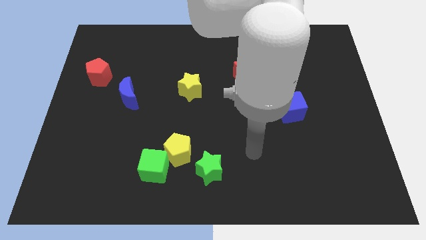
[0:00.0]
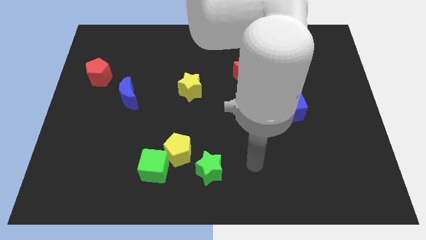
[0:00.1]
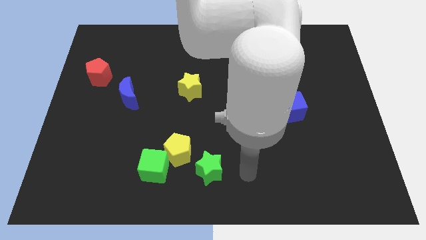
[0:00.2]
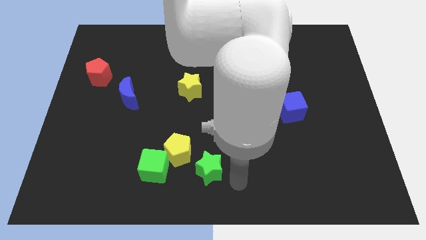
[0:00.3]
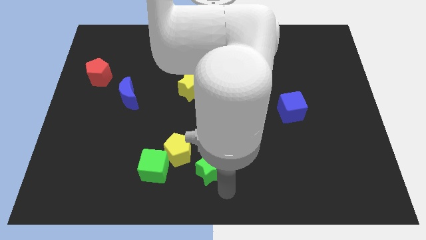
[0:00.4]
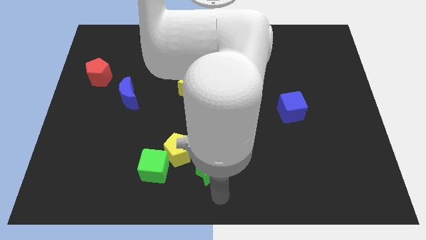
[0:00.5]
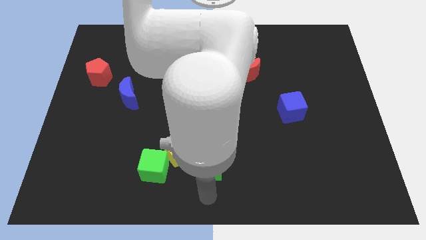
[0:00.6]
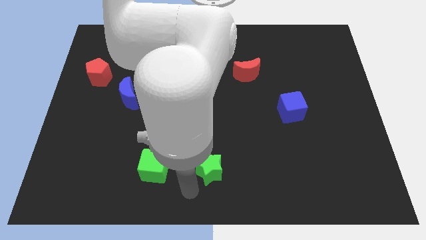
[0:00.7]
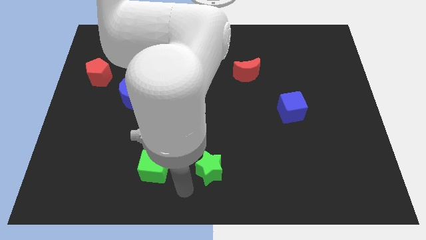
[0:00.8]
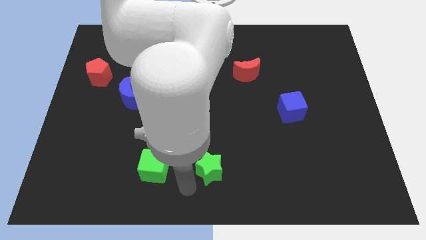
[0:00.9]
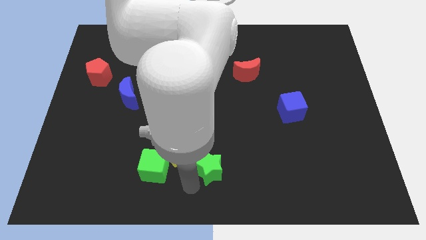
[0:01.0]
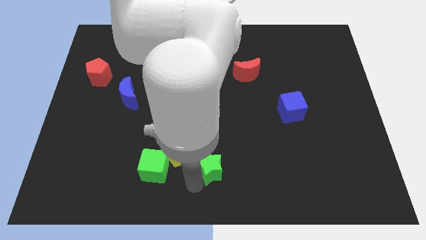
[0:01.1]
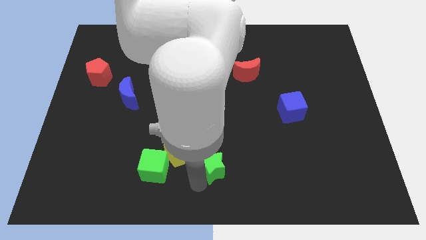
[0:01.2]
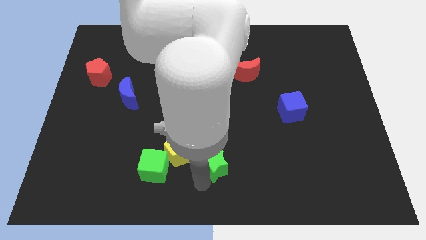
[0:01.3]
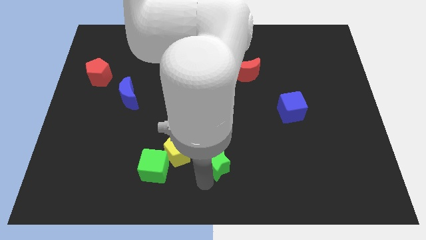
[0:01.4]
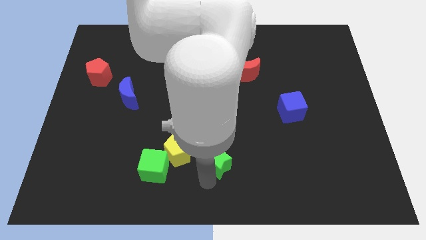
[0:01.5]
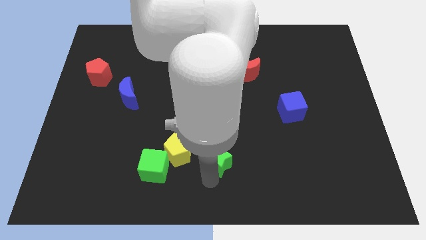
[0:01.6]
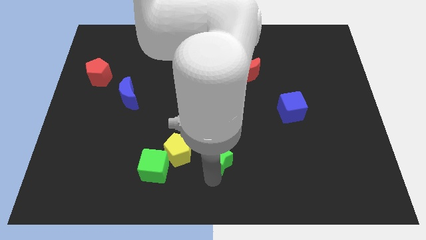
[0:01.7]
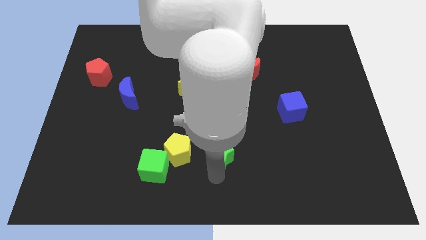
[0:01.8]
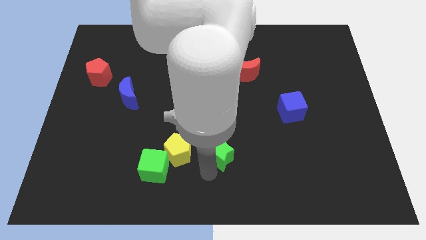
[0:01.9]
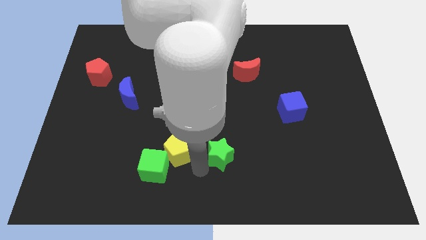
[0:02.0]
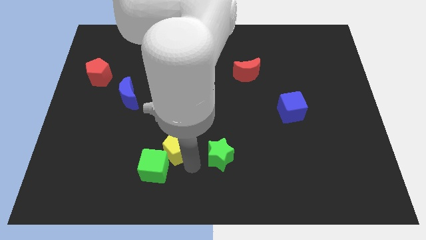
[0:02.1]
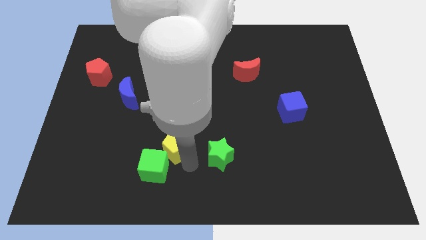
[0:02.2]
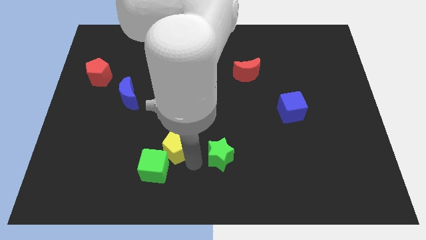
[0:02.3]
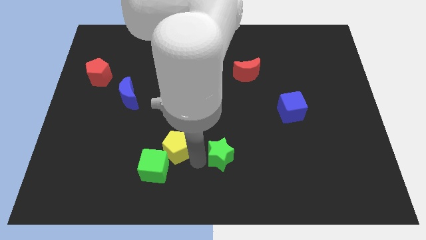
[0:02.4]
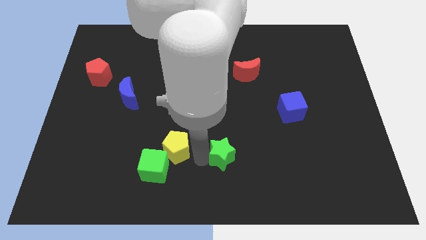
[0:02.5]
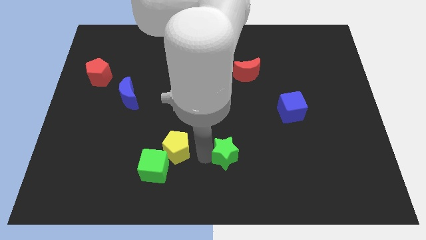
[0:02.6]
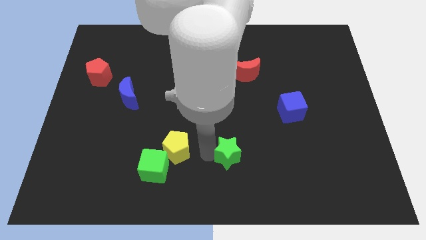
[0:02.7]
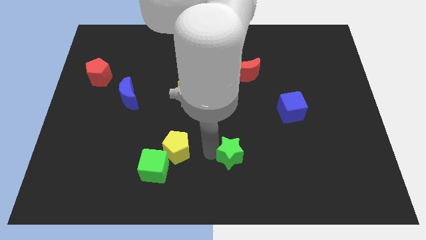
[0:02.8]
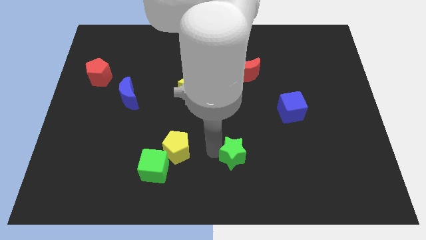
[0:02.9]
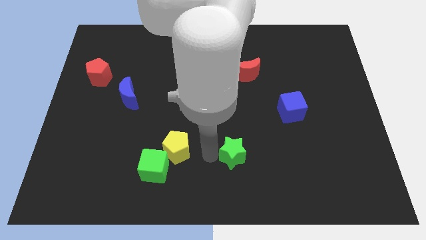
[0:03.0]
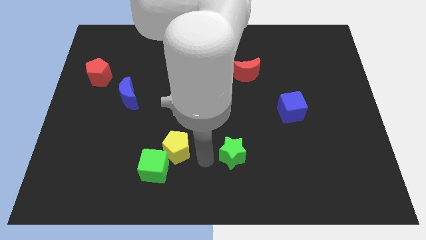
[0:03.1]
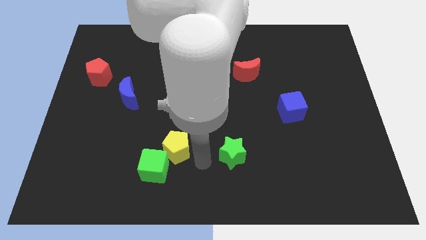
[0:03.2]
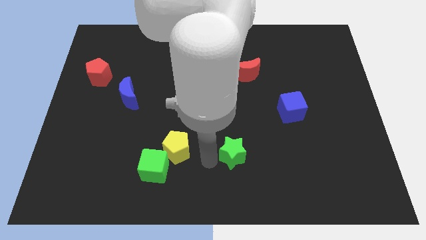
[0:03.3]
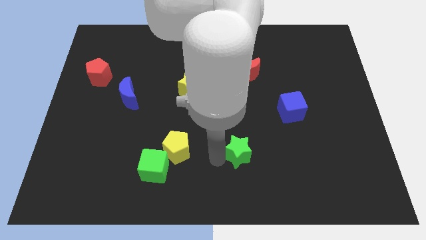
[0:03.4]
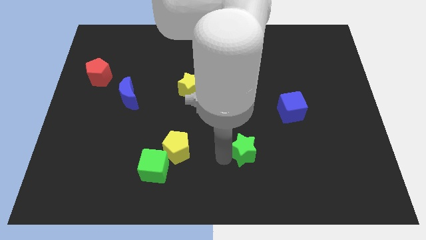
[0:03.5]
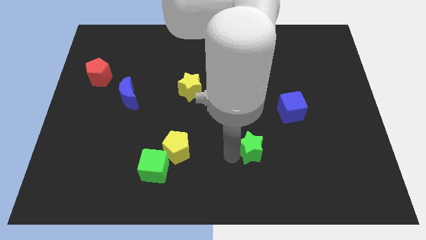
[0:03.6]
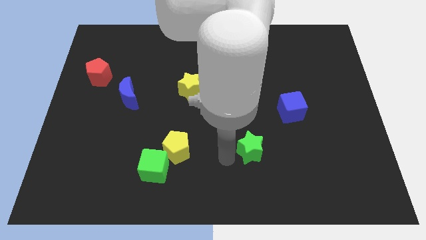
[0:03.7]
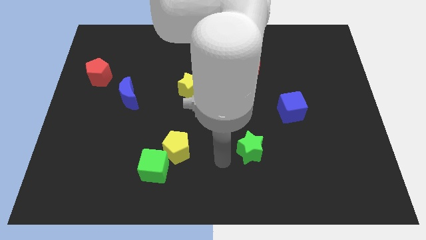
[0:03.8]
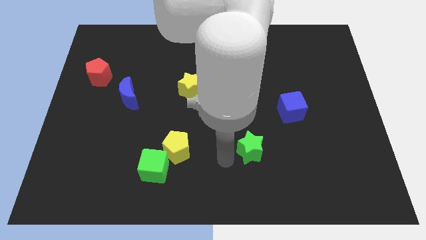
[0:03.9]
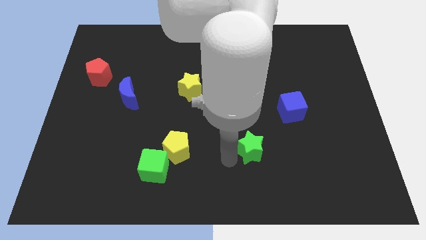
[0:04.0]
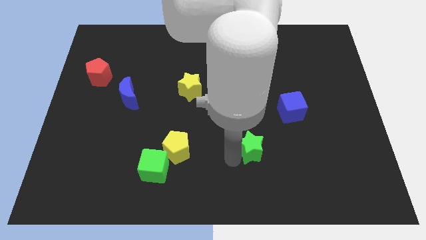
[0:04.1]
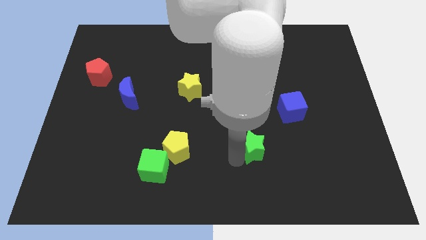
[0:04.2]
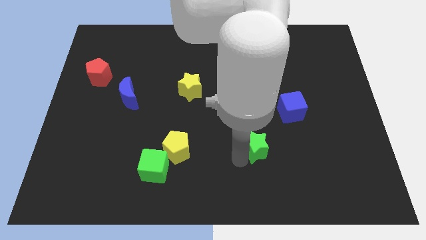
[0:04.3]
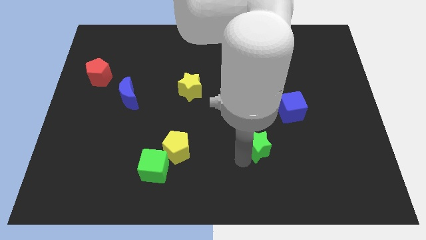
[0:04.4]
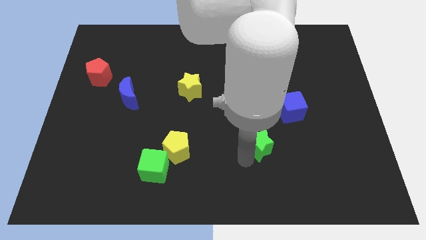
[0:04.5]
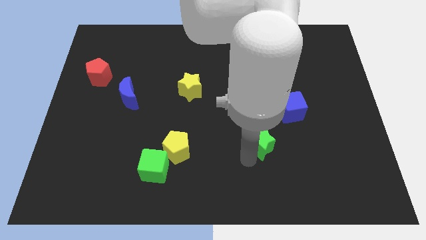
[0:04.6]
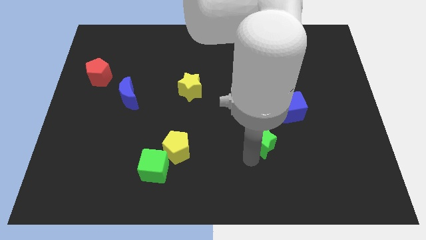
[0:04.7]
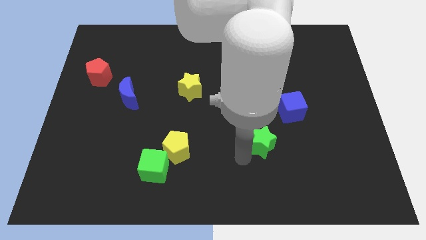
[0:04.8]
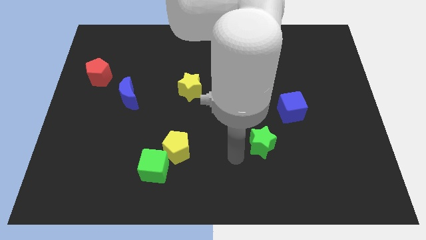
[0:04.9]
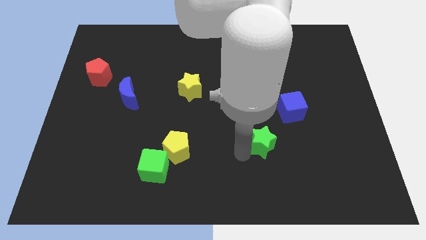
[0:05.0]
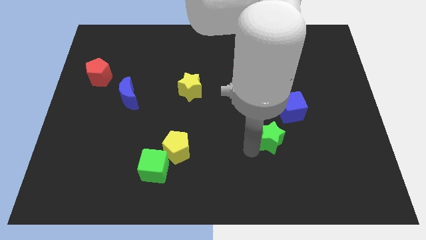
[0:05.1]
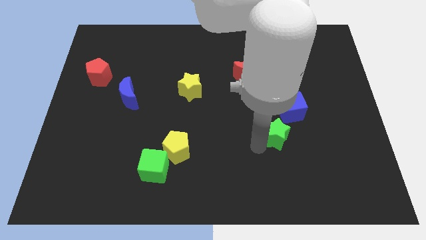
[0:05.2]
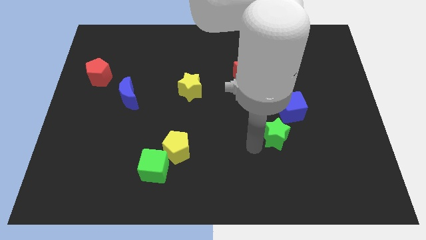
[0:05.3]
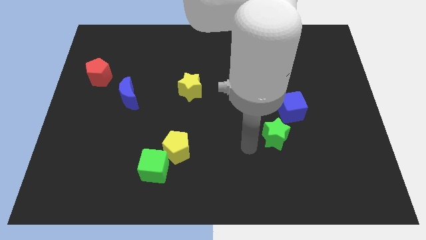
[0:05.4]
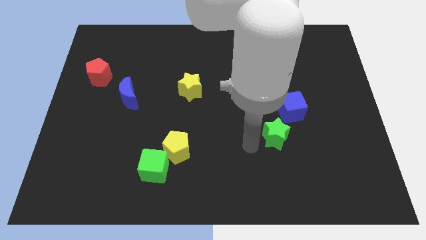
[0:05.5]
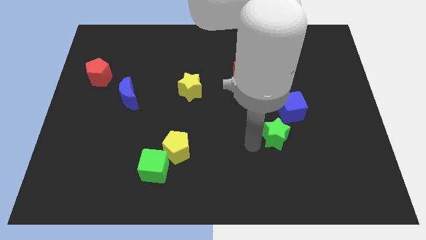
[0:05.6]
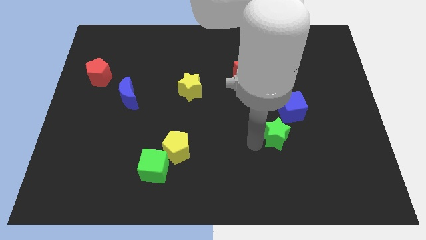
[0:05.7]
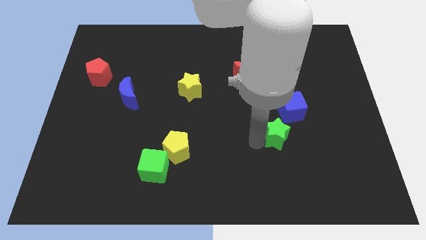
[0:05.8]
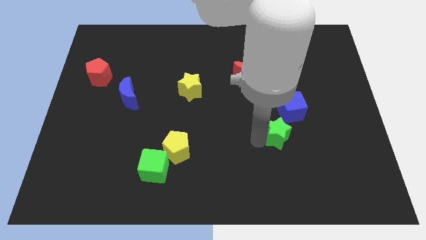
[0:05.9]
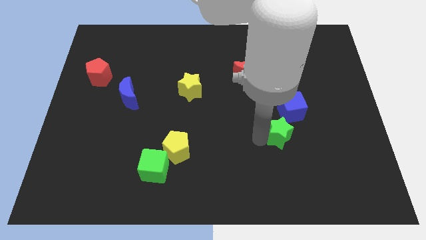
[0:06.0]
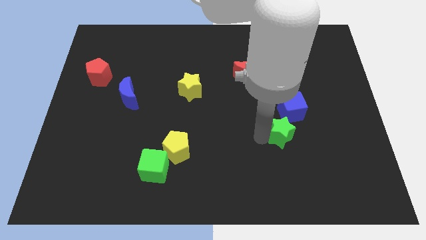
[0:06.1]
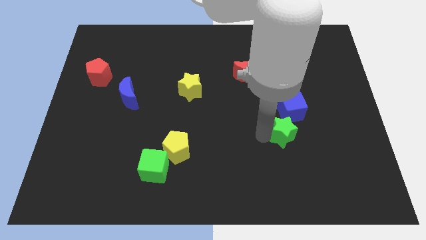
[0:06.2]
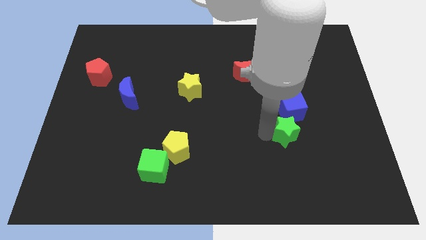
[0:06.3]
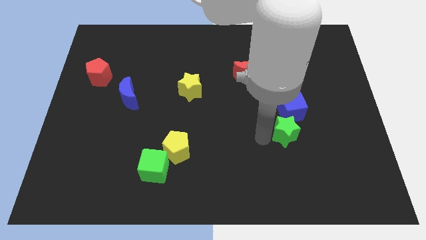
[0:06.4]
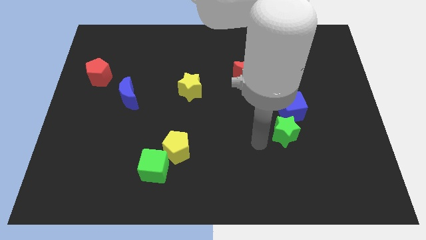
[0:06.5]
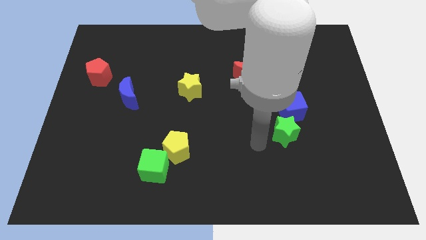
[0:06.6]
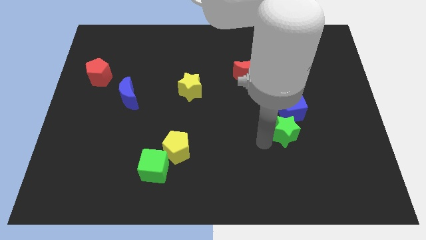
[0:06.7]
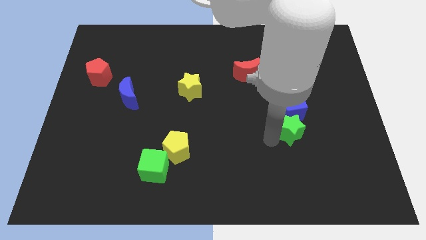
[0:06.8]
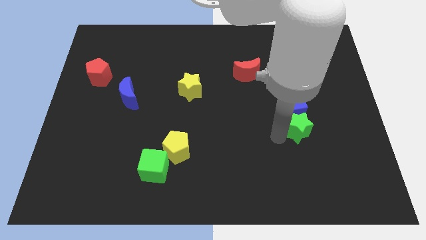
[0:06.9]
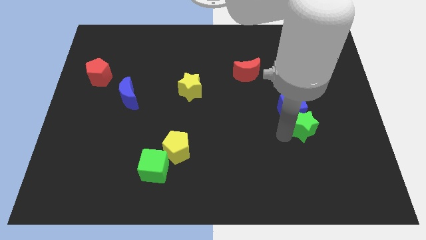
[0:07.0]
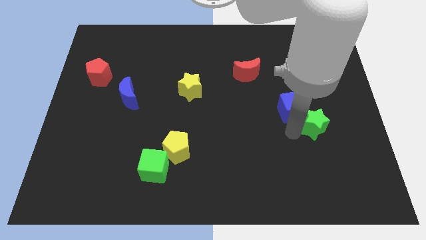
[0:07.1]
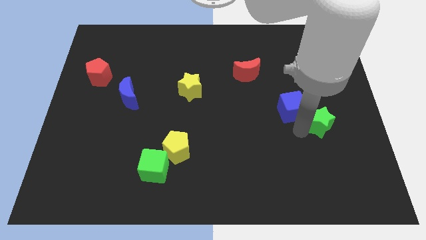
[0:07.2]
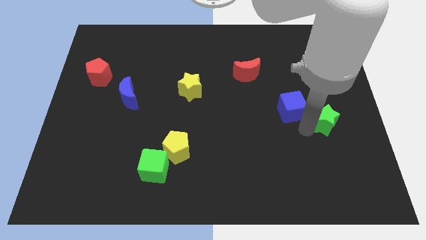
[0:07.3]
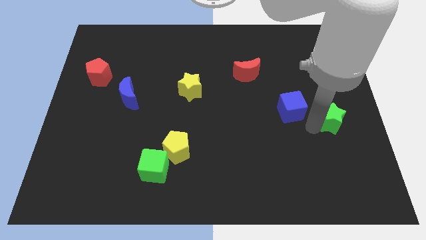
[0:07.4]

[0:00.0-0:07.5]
move the green star to the center right
